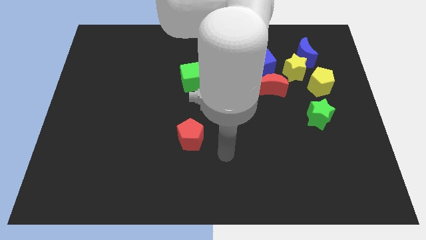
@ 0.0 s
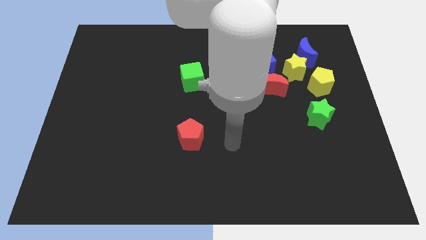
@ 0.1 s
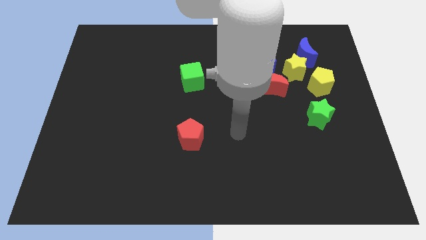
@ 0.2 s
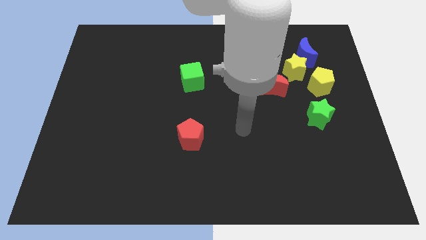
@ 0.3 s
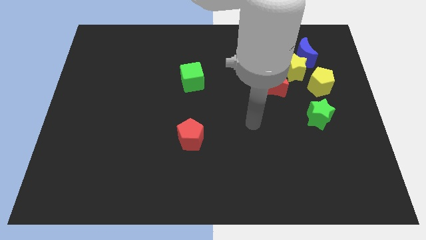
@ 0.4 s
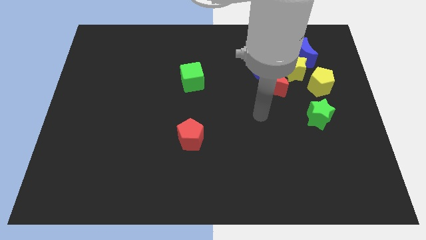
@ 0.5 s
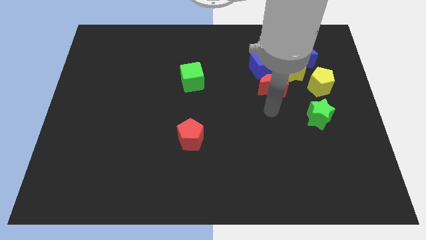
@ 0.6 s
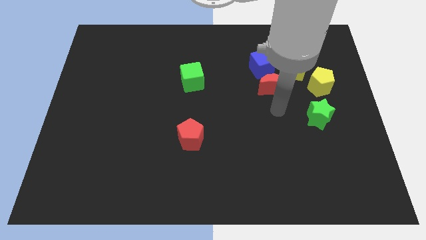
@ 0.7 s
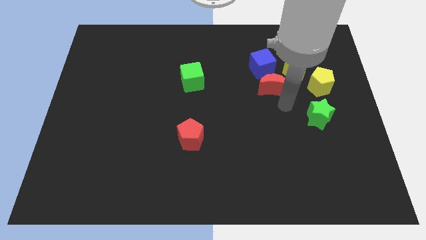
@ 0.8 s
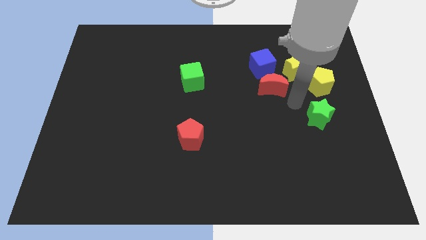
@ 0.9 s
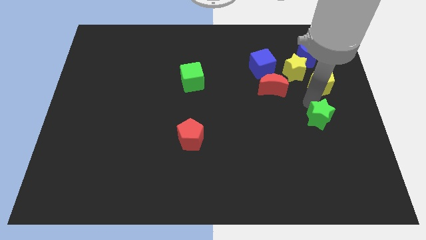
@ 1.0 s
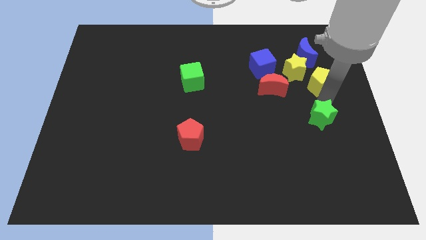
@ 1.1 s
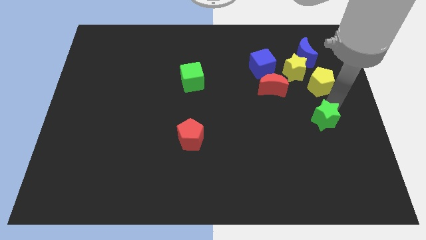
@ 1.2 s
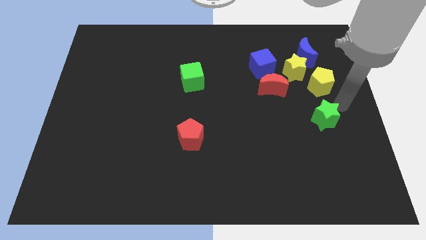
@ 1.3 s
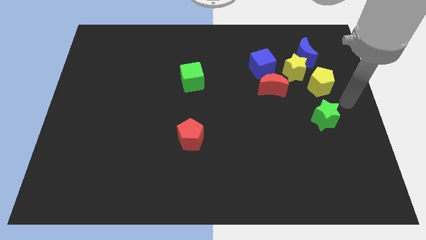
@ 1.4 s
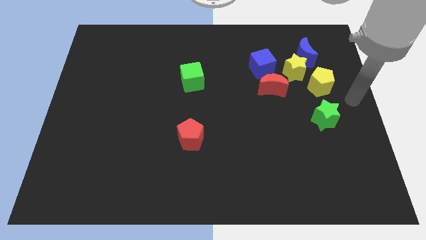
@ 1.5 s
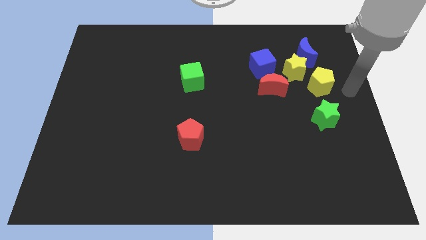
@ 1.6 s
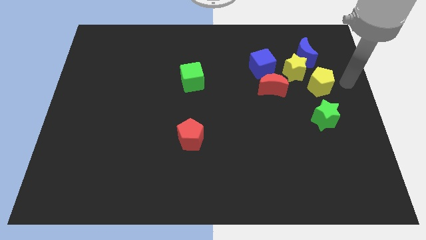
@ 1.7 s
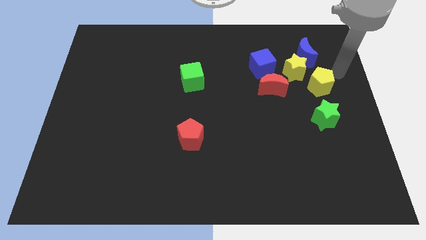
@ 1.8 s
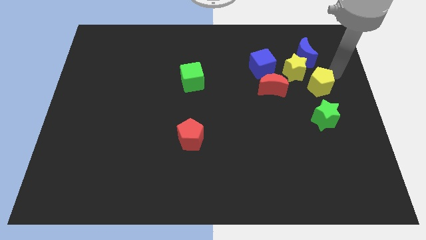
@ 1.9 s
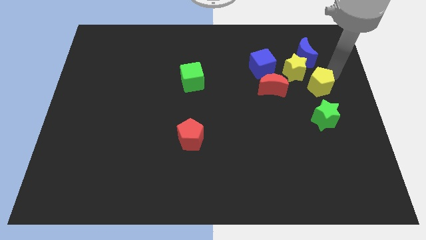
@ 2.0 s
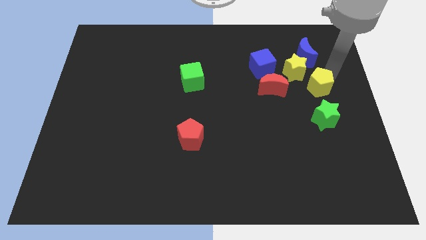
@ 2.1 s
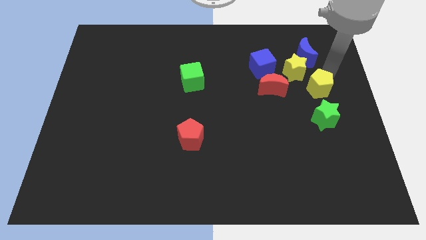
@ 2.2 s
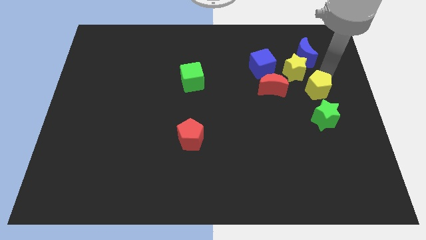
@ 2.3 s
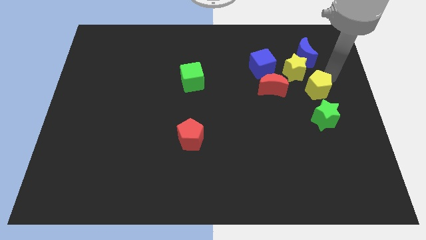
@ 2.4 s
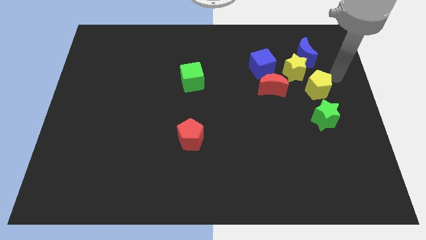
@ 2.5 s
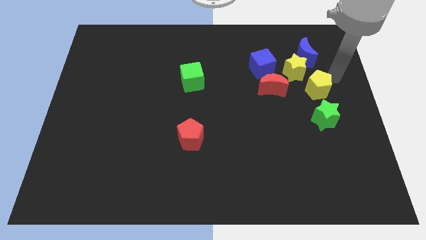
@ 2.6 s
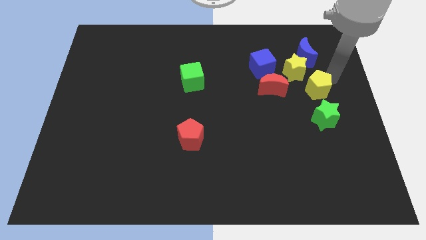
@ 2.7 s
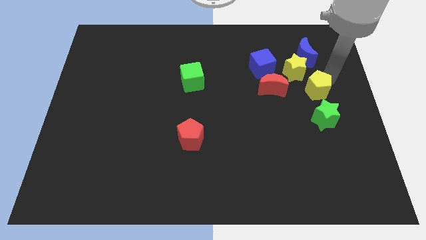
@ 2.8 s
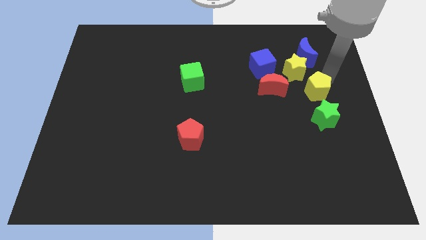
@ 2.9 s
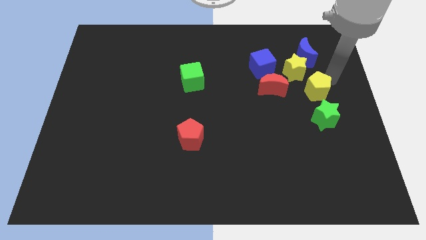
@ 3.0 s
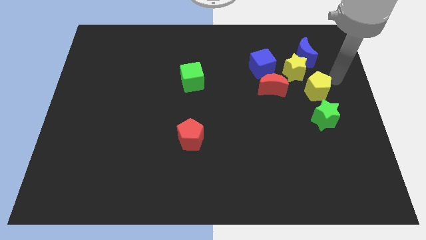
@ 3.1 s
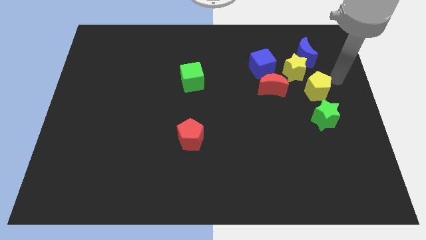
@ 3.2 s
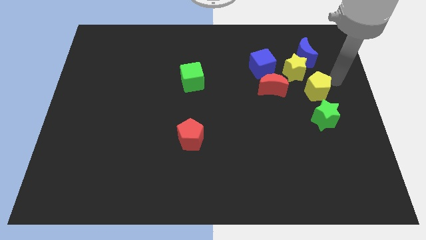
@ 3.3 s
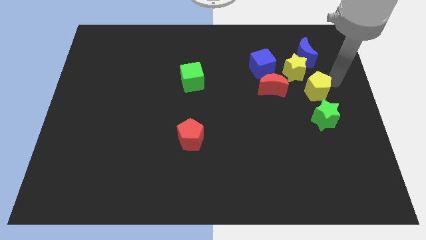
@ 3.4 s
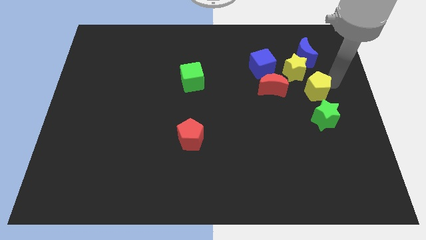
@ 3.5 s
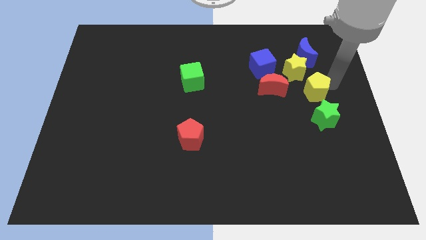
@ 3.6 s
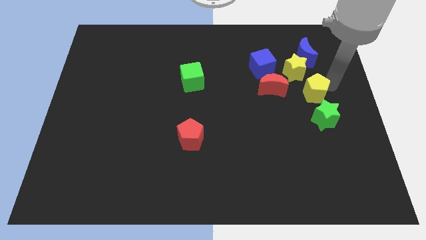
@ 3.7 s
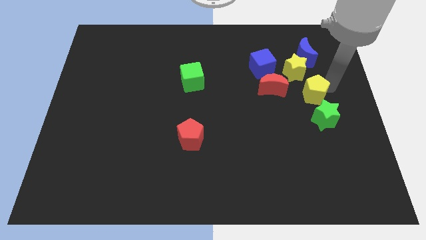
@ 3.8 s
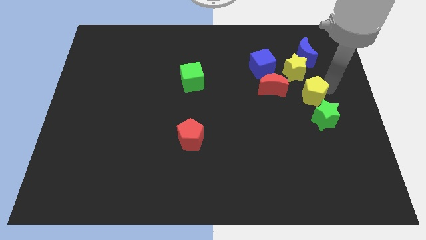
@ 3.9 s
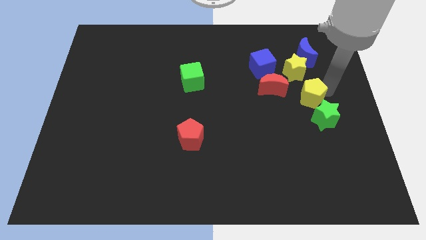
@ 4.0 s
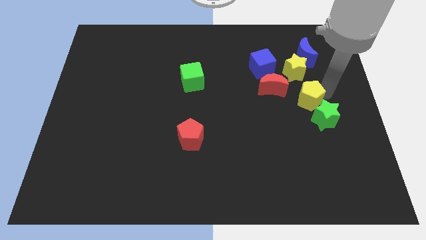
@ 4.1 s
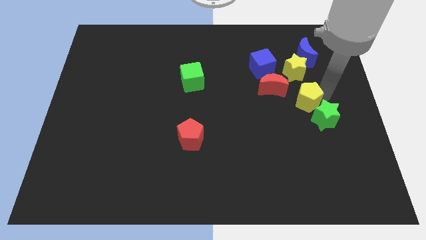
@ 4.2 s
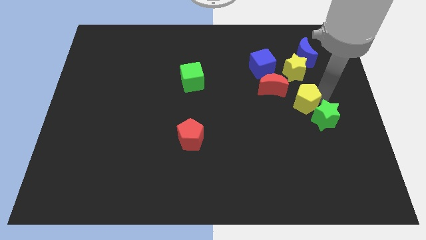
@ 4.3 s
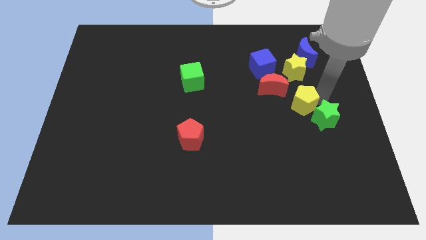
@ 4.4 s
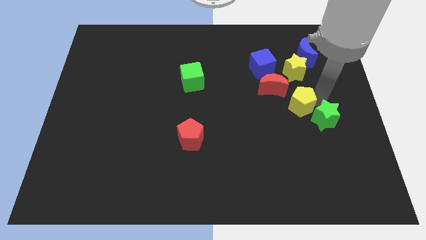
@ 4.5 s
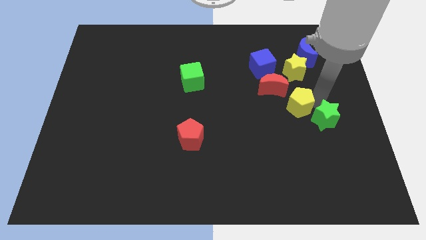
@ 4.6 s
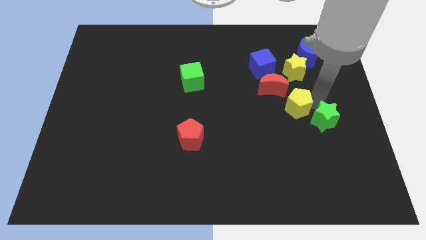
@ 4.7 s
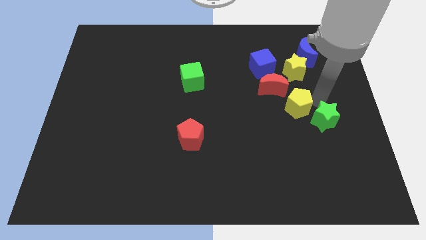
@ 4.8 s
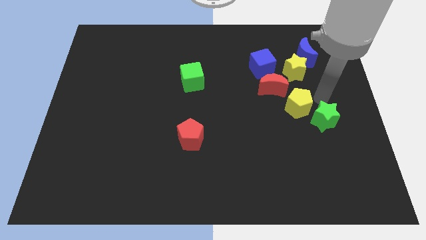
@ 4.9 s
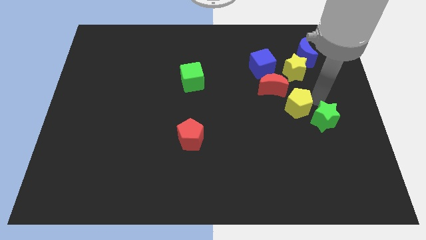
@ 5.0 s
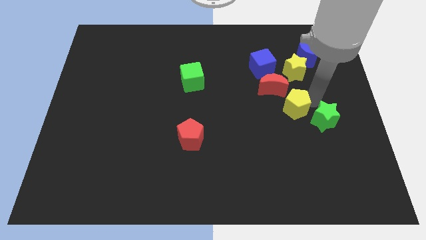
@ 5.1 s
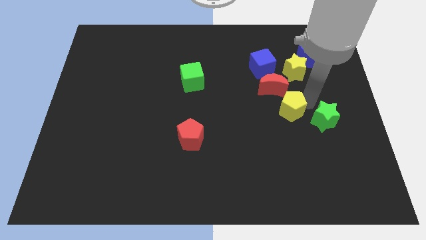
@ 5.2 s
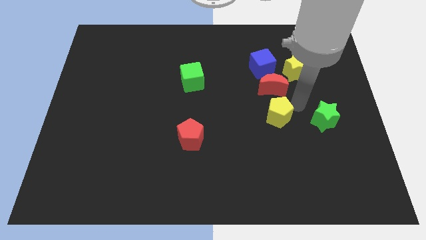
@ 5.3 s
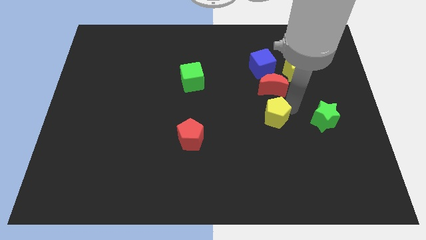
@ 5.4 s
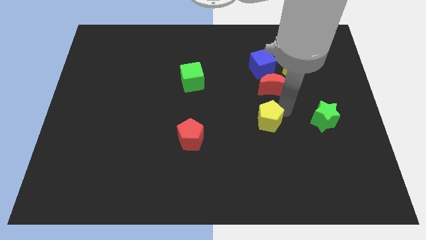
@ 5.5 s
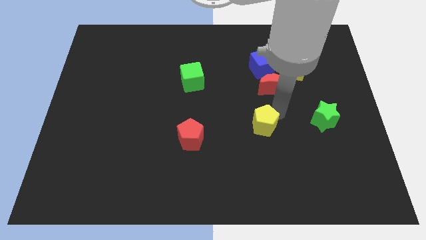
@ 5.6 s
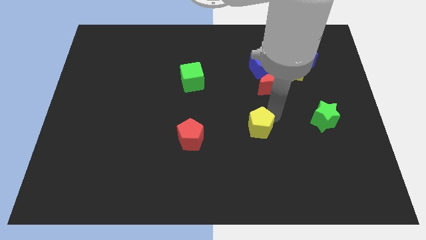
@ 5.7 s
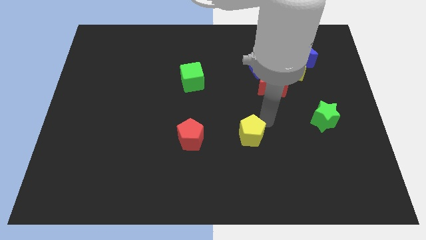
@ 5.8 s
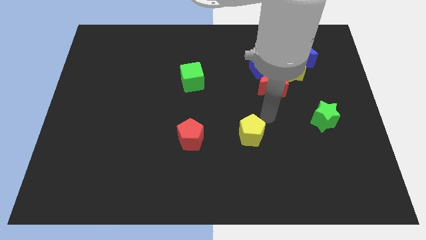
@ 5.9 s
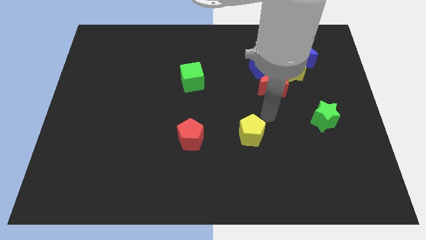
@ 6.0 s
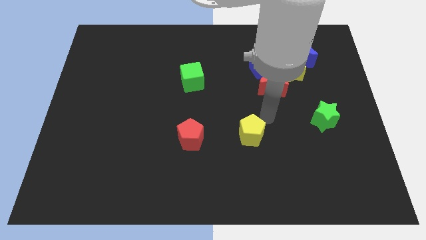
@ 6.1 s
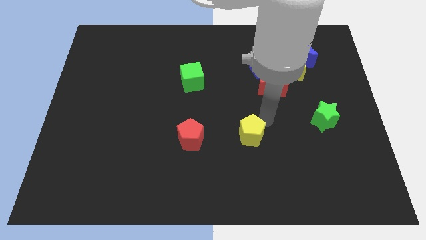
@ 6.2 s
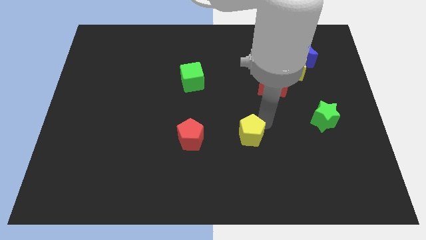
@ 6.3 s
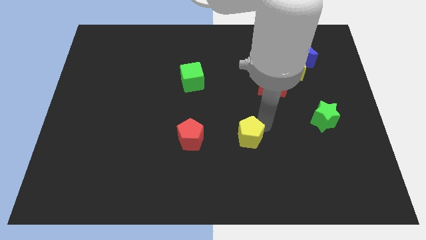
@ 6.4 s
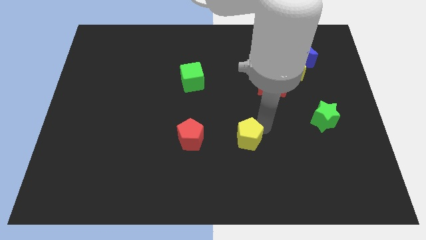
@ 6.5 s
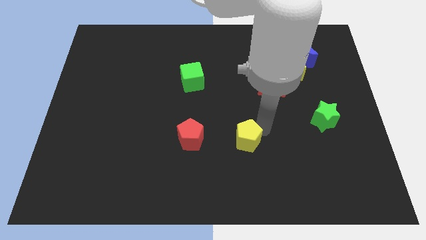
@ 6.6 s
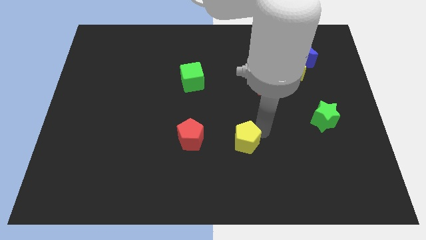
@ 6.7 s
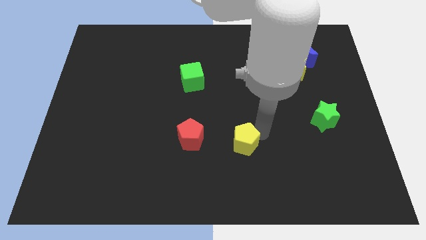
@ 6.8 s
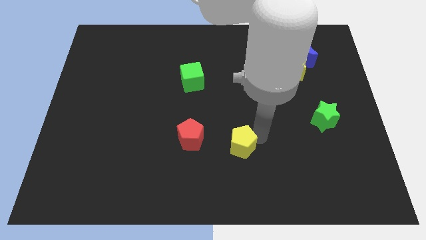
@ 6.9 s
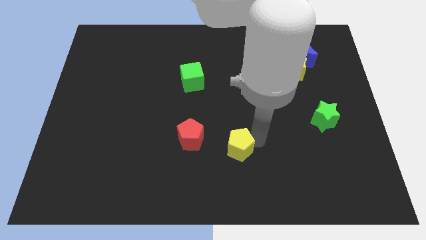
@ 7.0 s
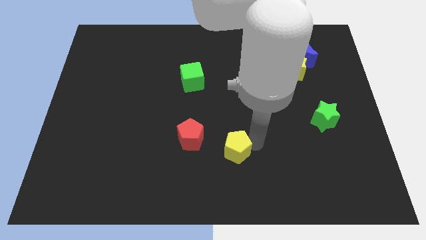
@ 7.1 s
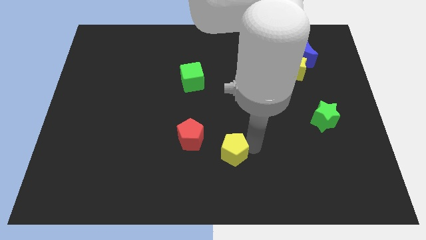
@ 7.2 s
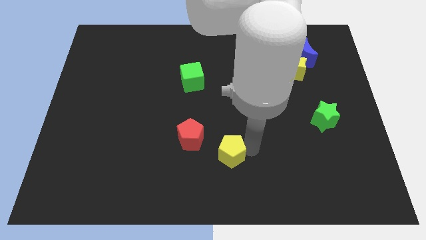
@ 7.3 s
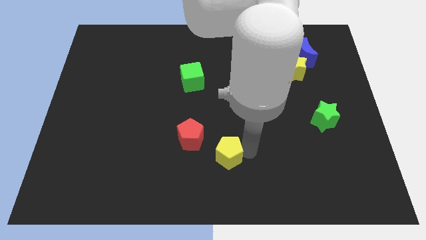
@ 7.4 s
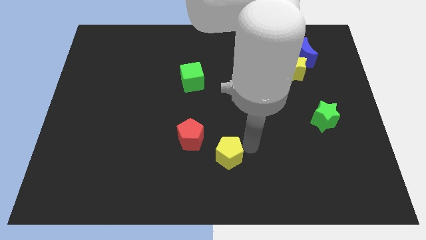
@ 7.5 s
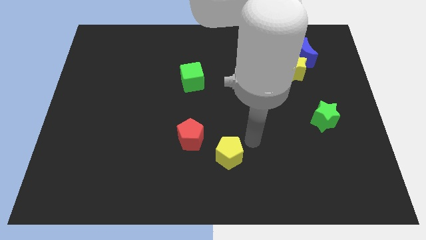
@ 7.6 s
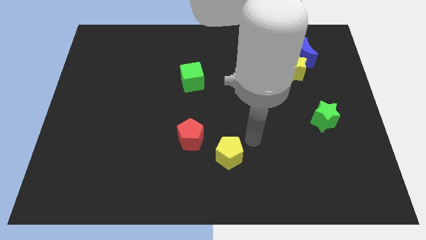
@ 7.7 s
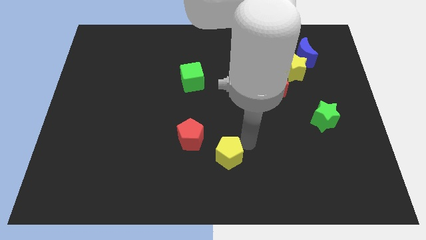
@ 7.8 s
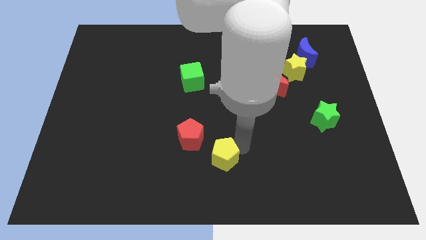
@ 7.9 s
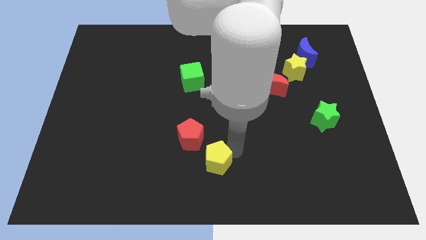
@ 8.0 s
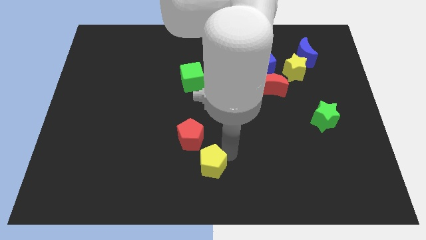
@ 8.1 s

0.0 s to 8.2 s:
push the yellow pentagon to the bottom of the red pentagon

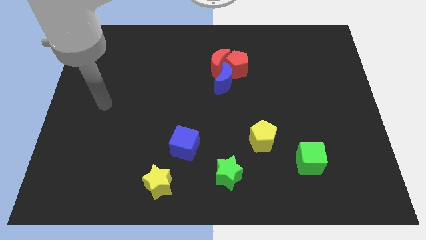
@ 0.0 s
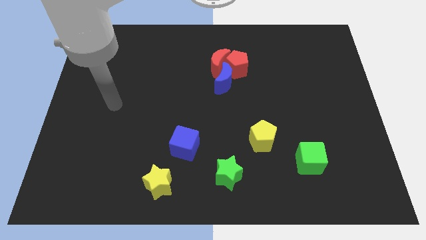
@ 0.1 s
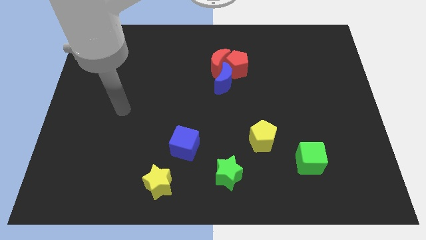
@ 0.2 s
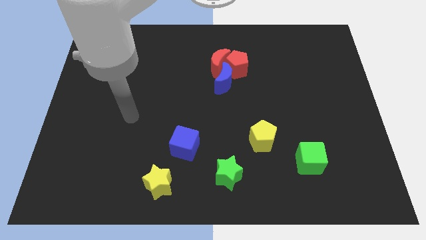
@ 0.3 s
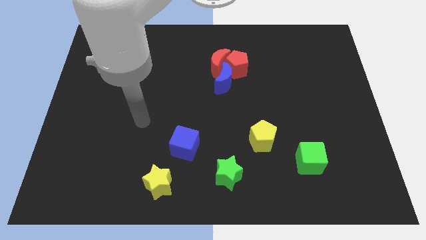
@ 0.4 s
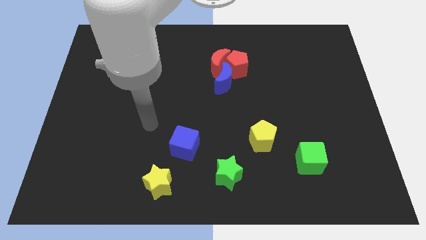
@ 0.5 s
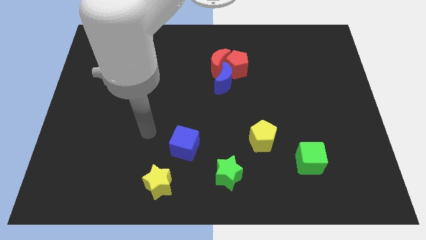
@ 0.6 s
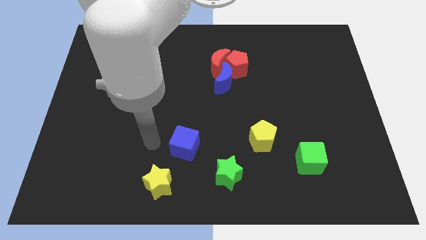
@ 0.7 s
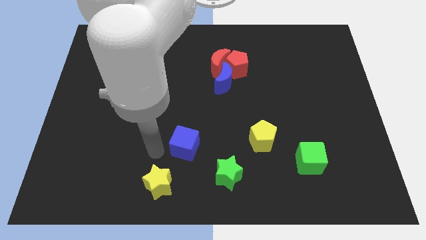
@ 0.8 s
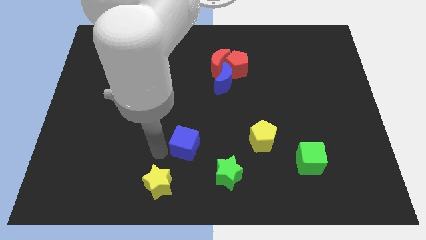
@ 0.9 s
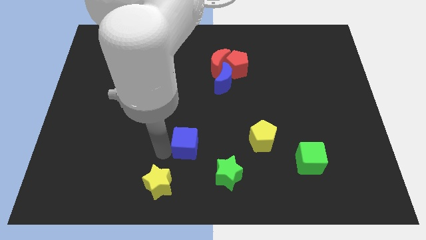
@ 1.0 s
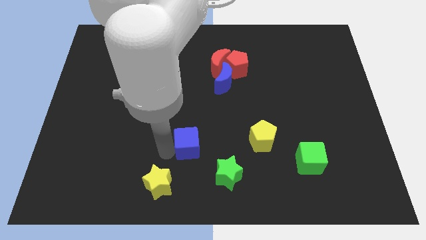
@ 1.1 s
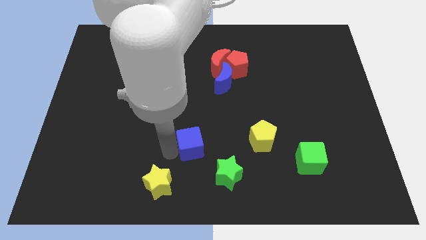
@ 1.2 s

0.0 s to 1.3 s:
push the blue cube to the left of the yellow pentagon
